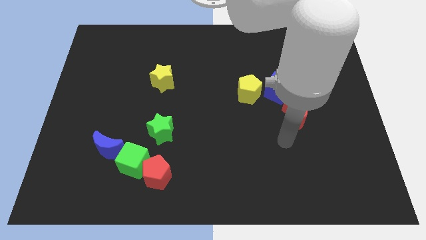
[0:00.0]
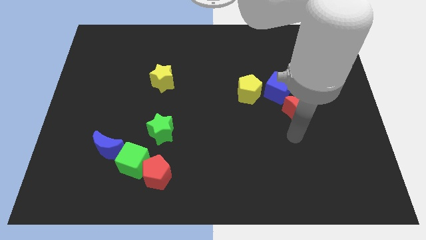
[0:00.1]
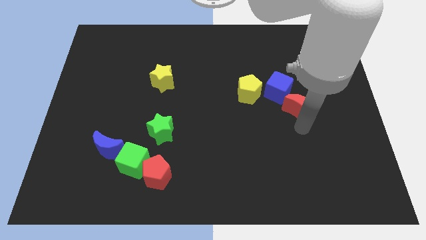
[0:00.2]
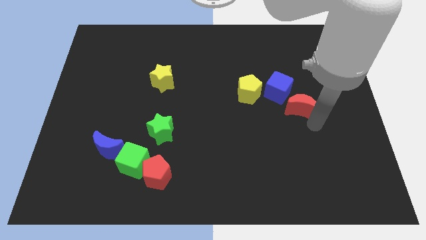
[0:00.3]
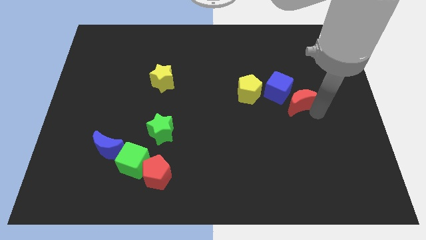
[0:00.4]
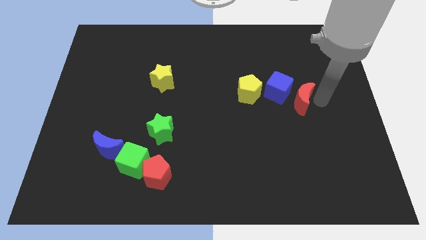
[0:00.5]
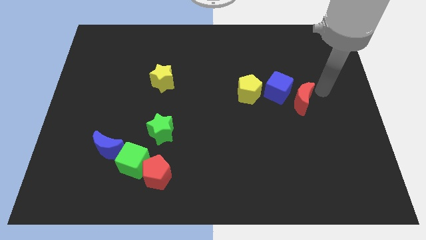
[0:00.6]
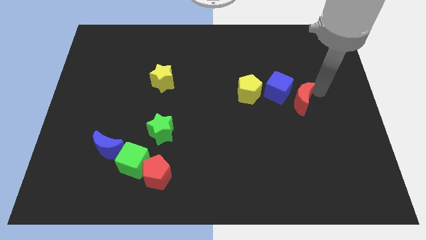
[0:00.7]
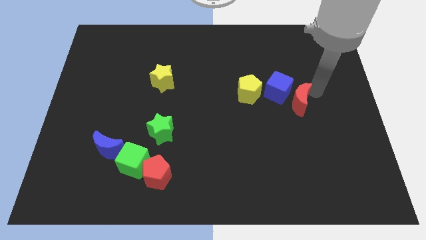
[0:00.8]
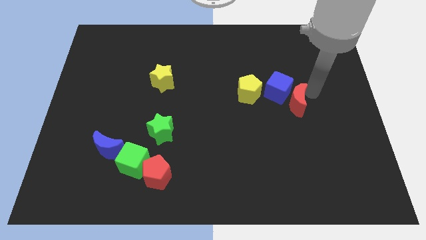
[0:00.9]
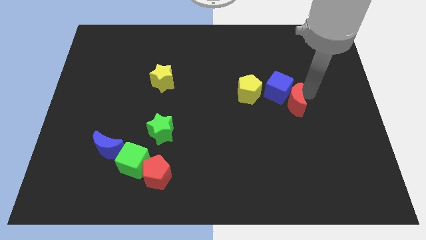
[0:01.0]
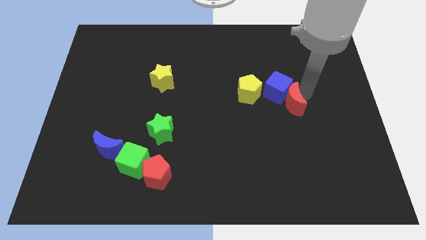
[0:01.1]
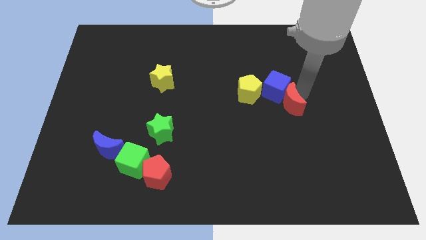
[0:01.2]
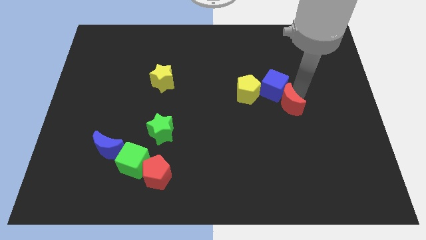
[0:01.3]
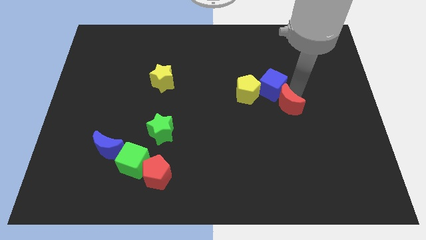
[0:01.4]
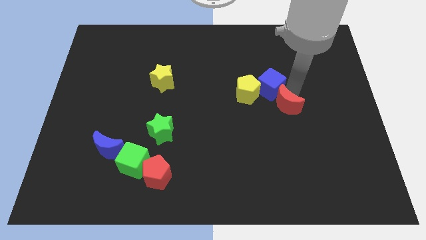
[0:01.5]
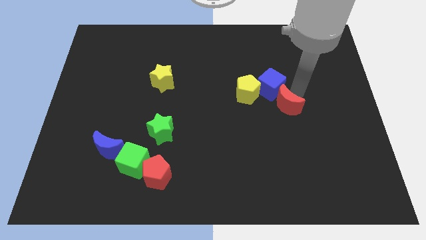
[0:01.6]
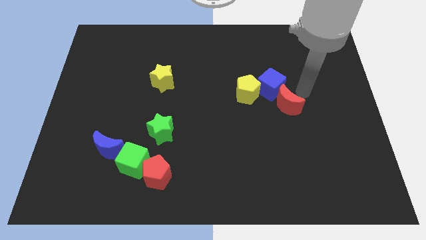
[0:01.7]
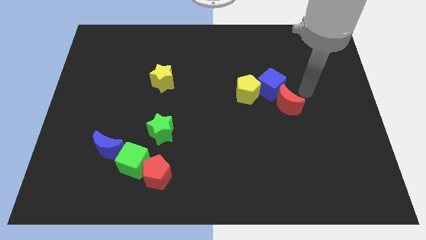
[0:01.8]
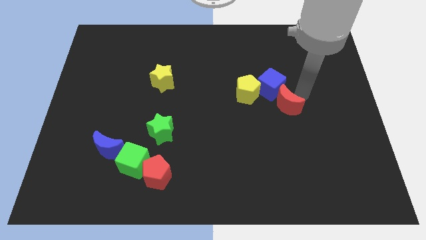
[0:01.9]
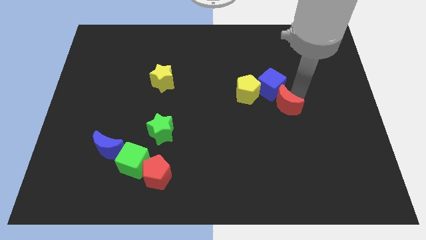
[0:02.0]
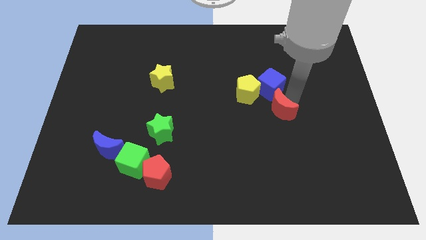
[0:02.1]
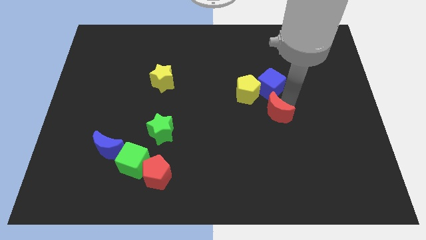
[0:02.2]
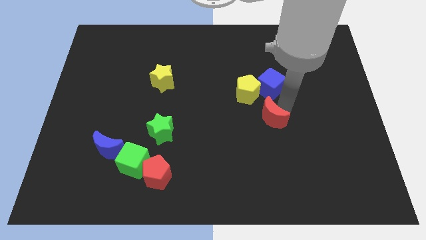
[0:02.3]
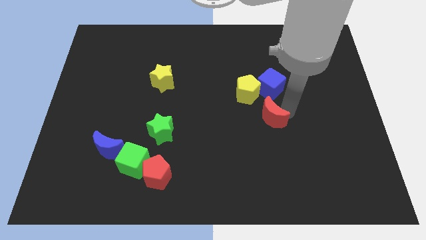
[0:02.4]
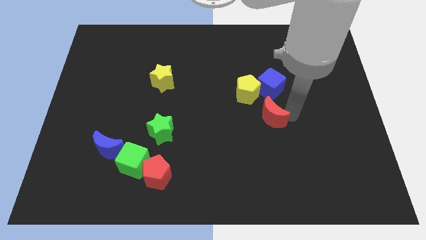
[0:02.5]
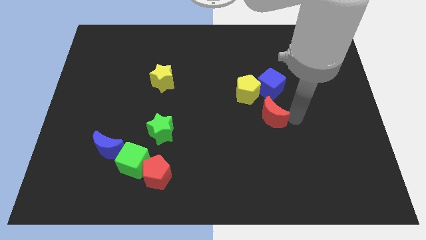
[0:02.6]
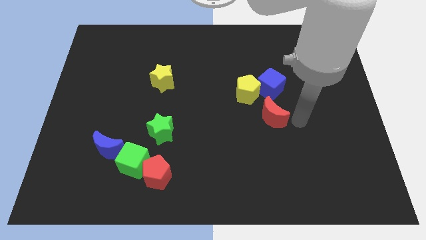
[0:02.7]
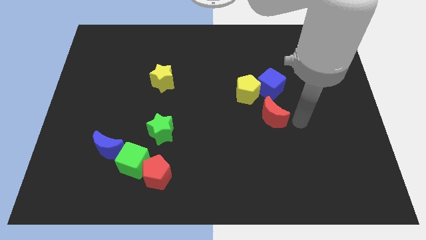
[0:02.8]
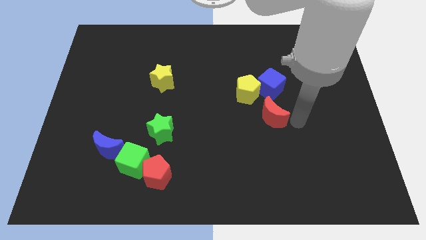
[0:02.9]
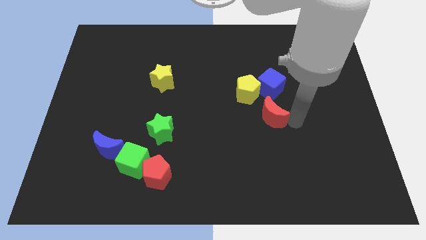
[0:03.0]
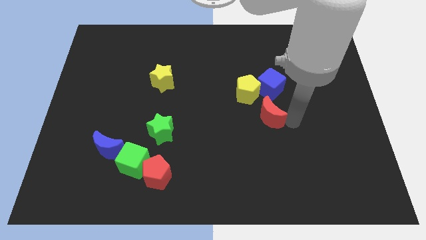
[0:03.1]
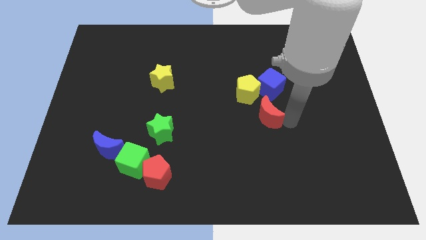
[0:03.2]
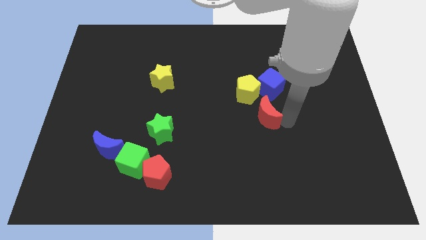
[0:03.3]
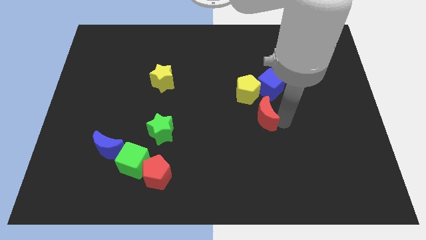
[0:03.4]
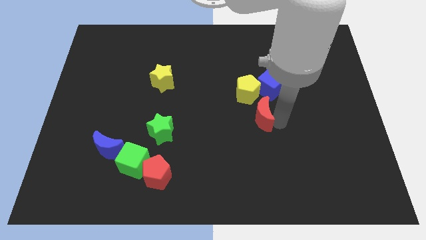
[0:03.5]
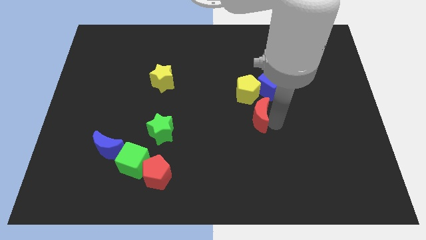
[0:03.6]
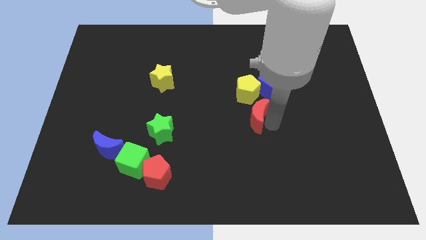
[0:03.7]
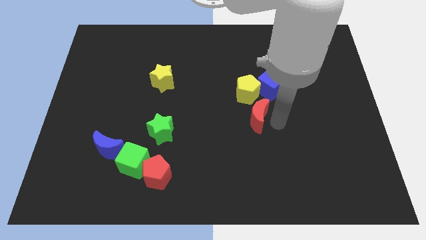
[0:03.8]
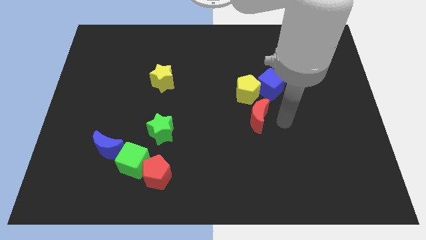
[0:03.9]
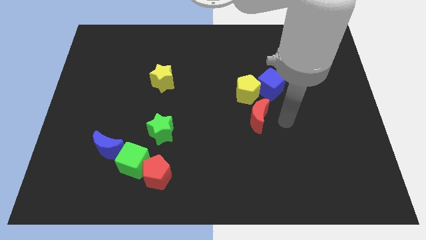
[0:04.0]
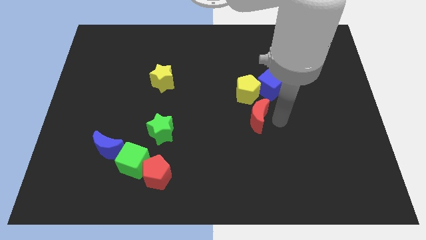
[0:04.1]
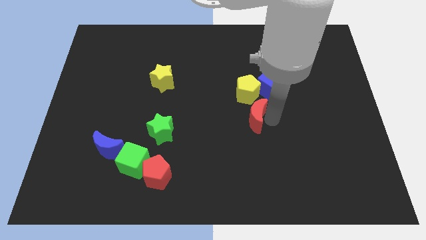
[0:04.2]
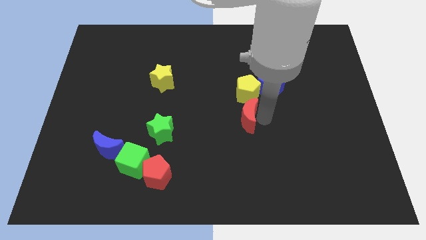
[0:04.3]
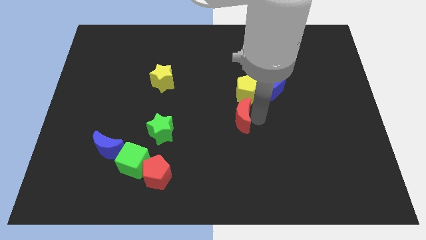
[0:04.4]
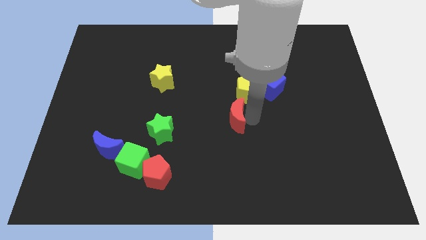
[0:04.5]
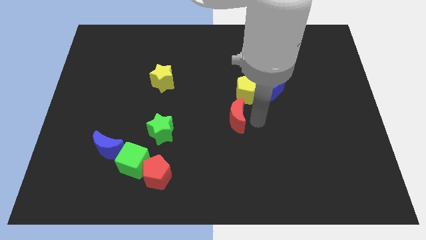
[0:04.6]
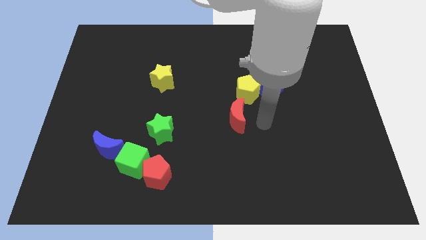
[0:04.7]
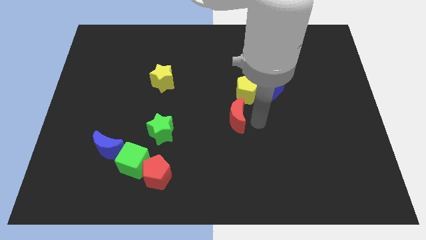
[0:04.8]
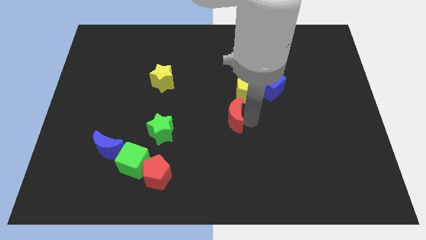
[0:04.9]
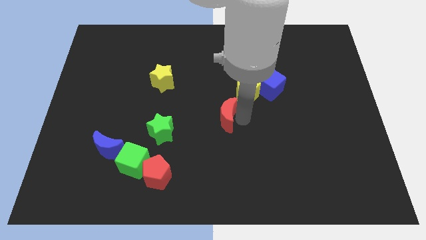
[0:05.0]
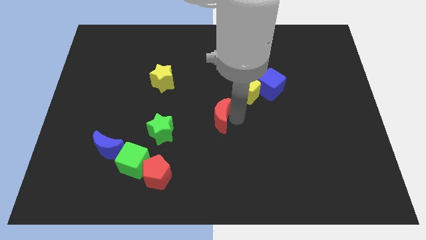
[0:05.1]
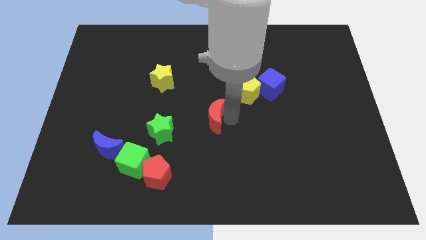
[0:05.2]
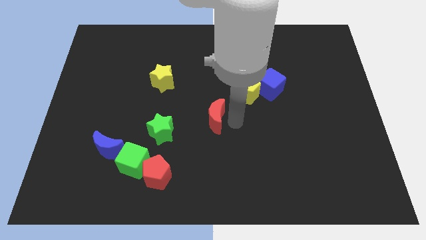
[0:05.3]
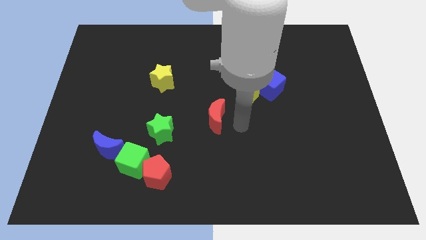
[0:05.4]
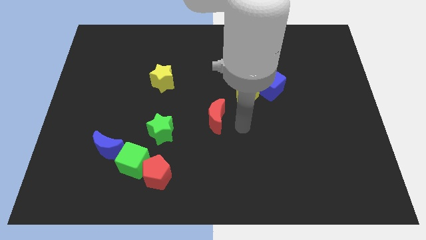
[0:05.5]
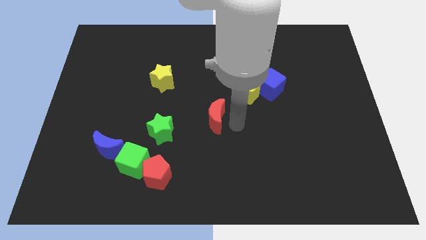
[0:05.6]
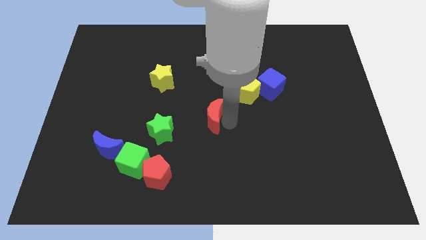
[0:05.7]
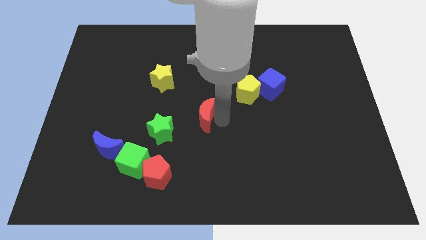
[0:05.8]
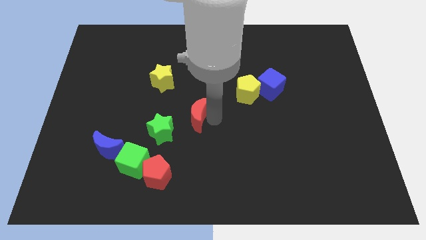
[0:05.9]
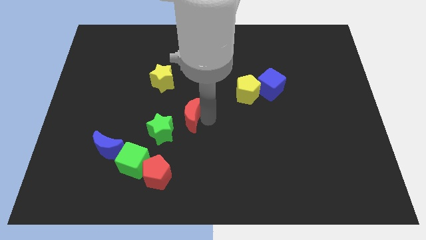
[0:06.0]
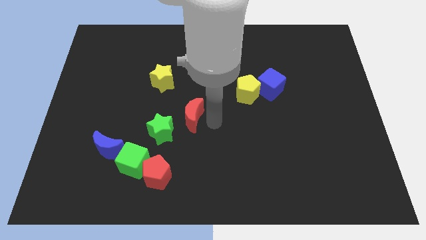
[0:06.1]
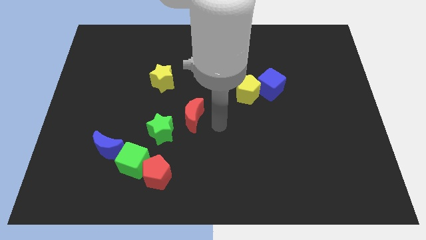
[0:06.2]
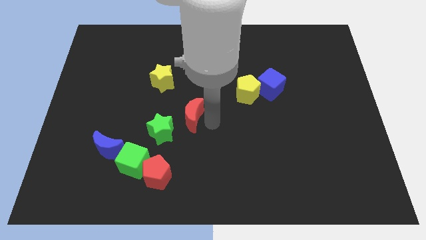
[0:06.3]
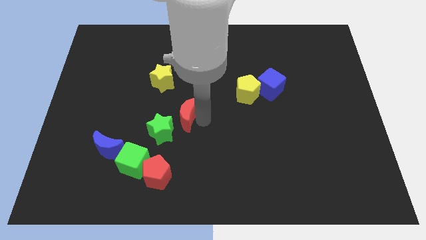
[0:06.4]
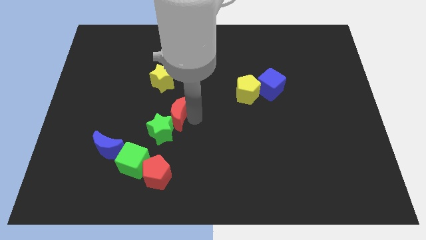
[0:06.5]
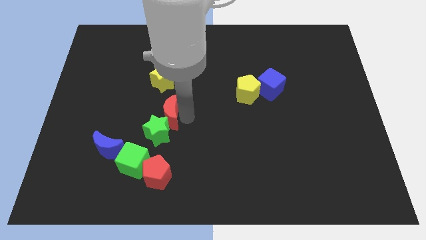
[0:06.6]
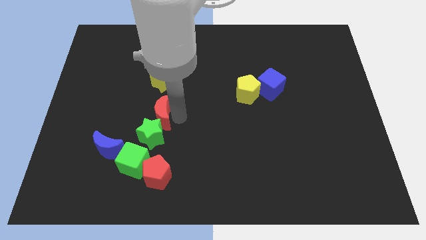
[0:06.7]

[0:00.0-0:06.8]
push the red moon above the green cube
